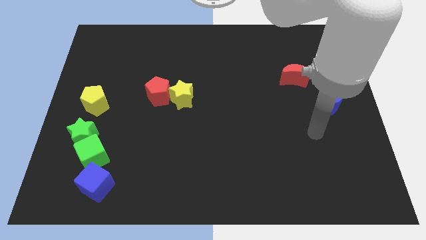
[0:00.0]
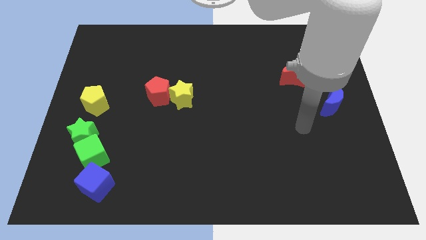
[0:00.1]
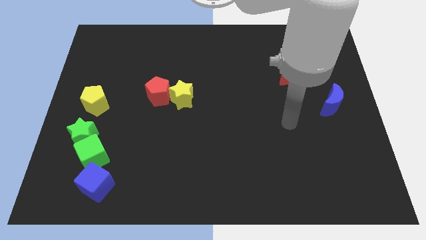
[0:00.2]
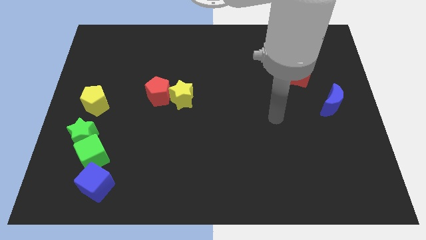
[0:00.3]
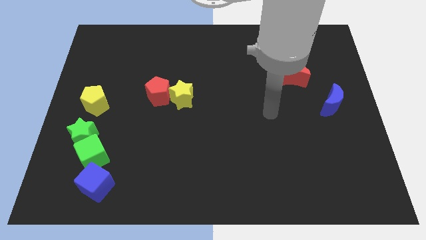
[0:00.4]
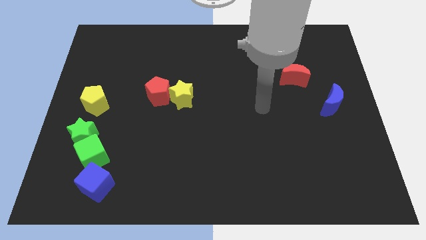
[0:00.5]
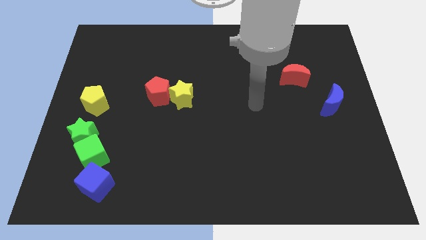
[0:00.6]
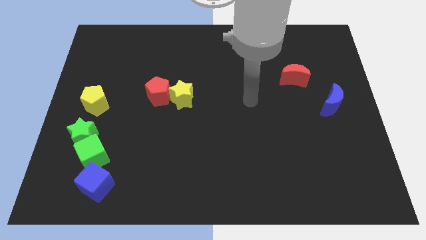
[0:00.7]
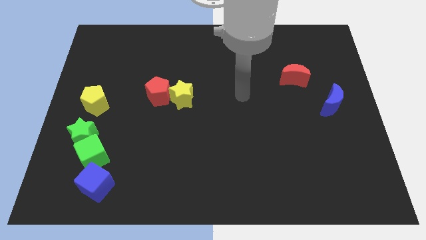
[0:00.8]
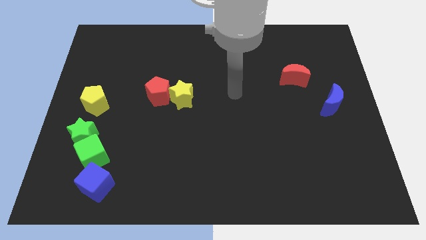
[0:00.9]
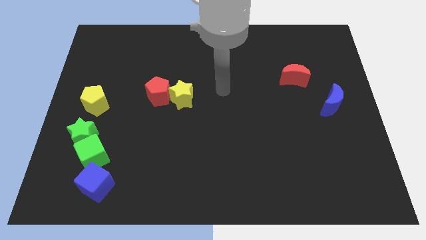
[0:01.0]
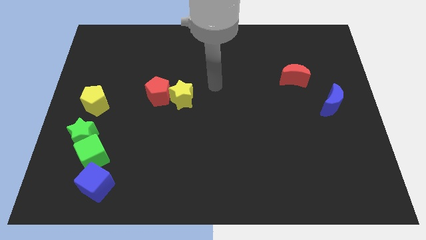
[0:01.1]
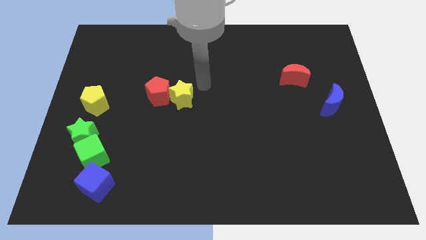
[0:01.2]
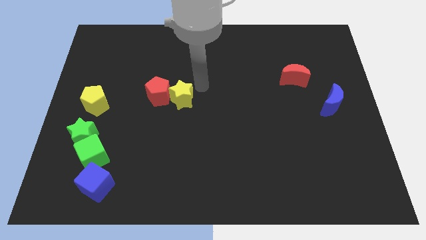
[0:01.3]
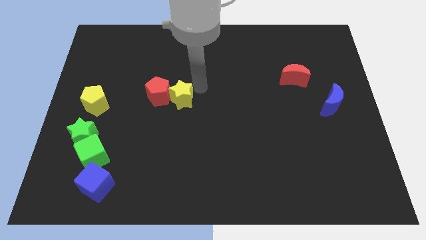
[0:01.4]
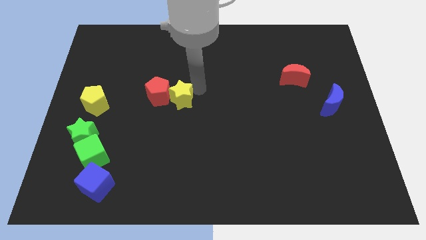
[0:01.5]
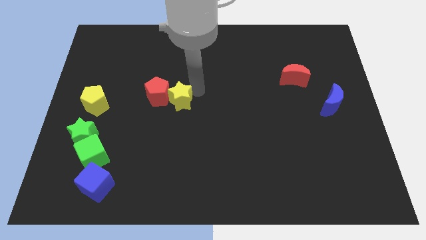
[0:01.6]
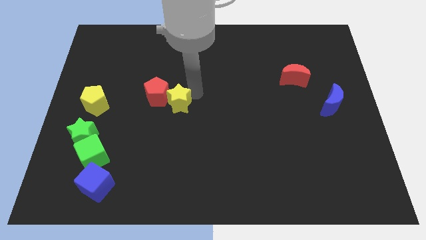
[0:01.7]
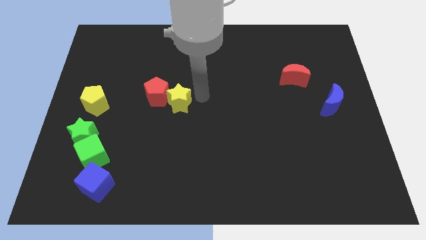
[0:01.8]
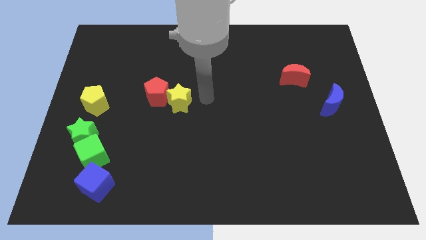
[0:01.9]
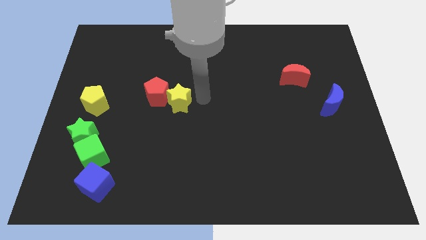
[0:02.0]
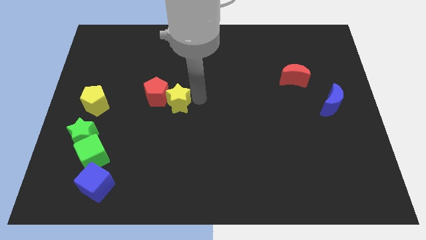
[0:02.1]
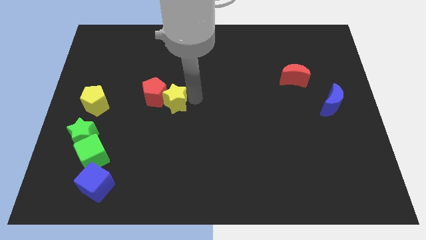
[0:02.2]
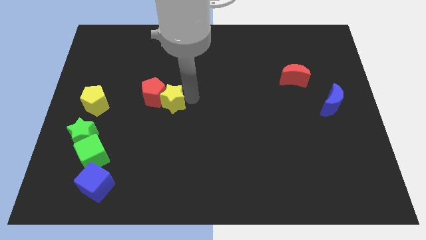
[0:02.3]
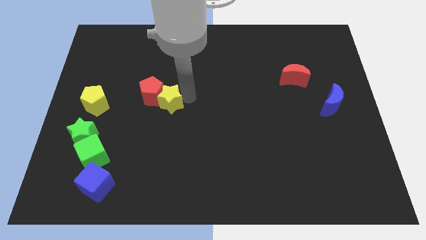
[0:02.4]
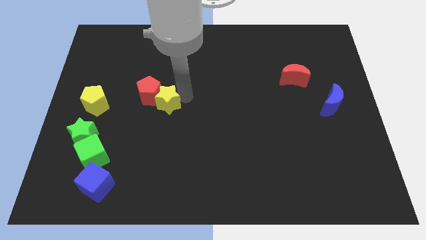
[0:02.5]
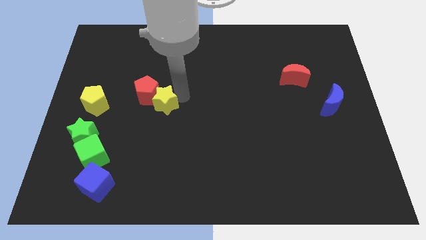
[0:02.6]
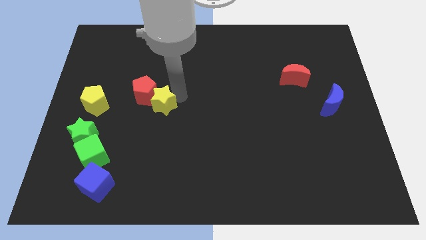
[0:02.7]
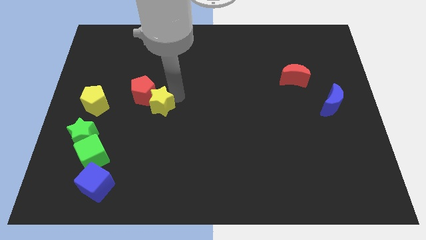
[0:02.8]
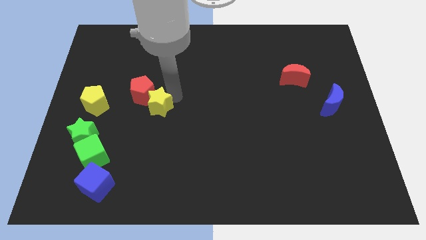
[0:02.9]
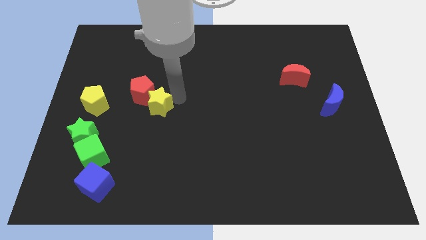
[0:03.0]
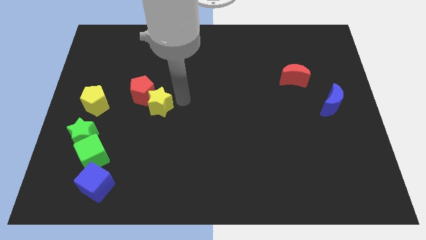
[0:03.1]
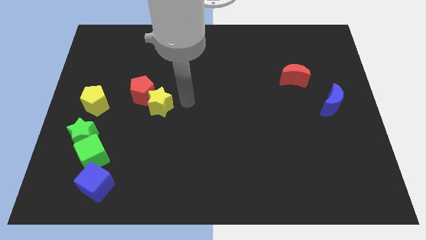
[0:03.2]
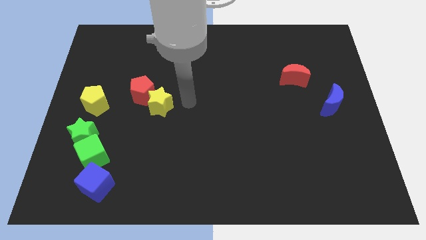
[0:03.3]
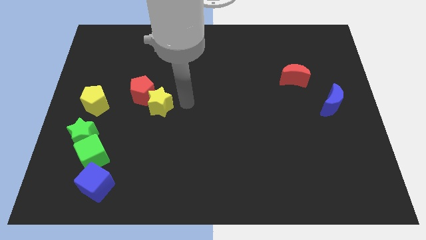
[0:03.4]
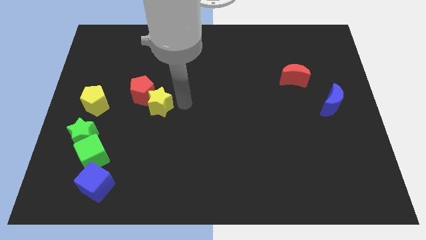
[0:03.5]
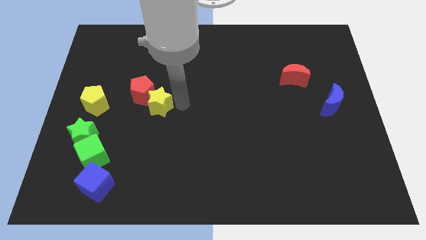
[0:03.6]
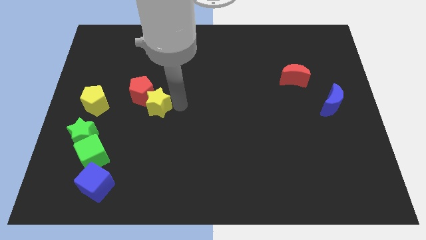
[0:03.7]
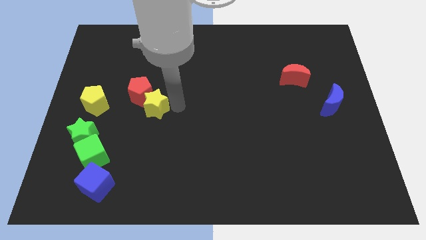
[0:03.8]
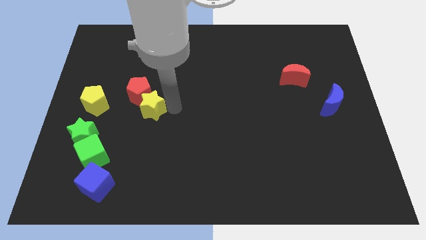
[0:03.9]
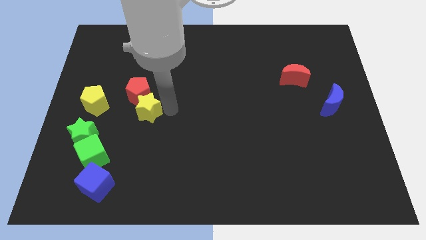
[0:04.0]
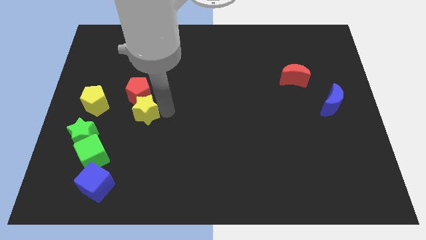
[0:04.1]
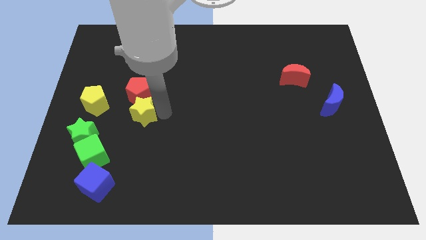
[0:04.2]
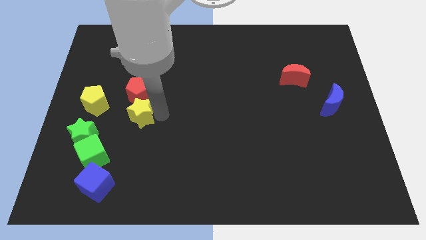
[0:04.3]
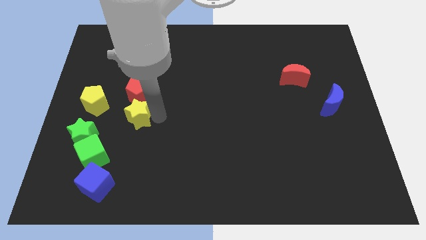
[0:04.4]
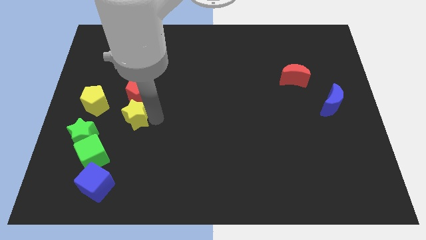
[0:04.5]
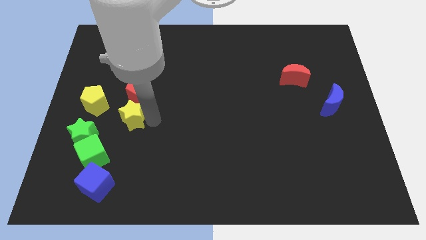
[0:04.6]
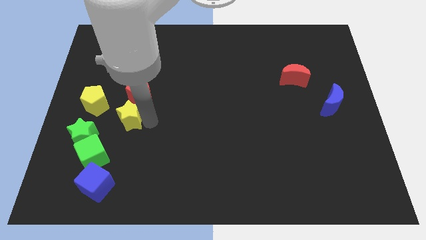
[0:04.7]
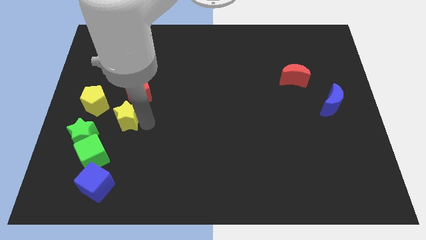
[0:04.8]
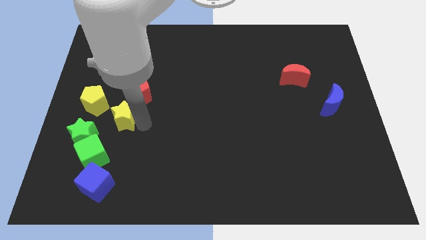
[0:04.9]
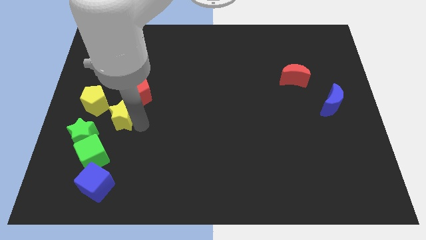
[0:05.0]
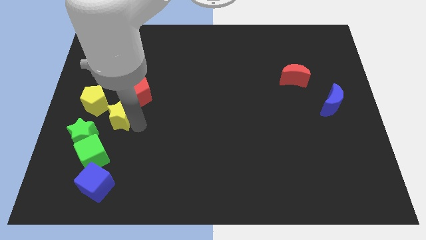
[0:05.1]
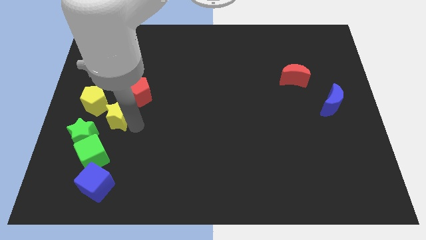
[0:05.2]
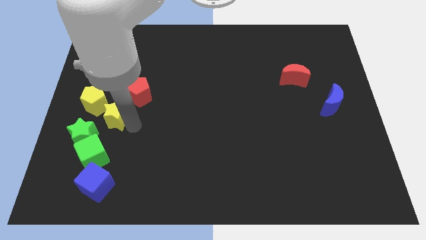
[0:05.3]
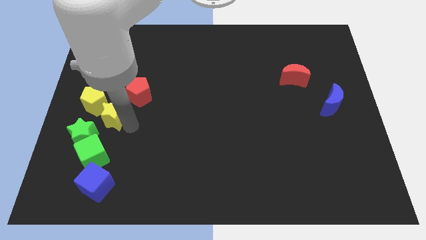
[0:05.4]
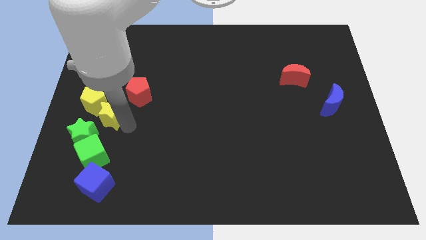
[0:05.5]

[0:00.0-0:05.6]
put the yellow star next to the yellow pentagon

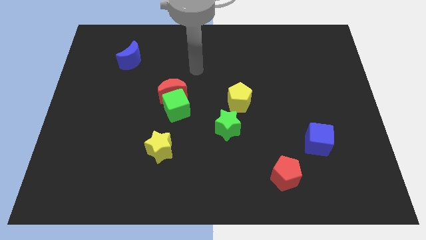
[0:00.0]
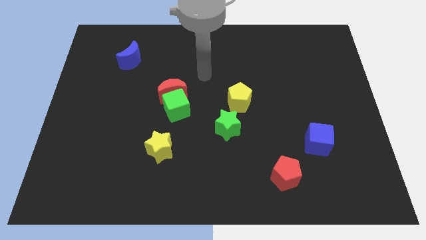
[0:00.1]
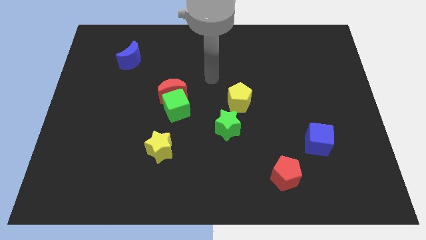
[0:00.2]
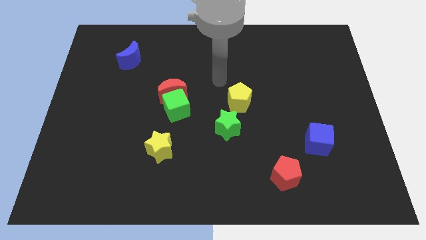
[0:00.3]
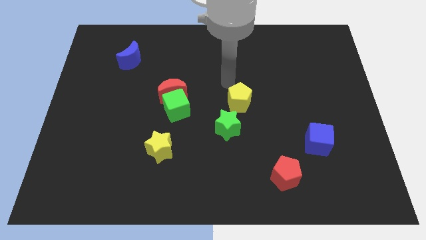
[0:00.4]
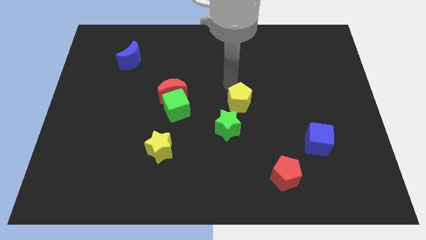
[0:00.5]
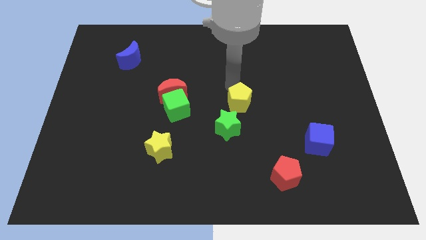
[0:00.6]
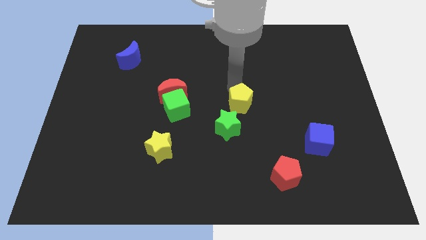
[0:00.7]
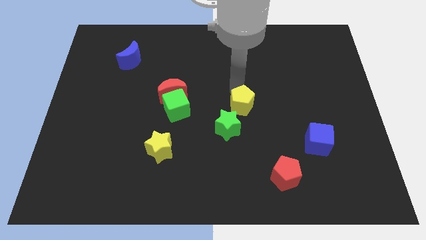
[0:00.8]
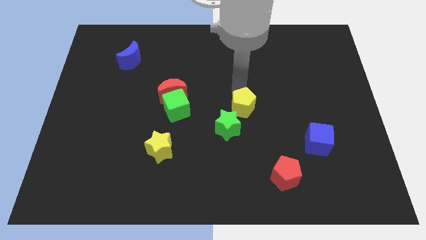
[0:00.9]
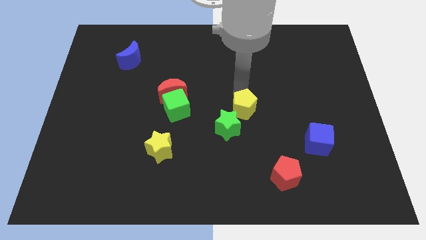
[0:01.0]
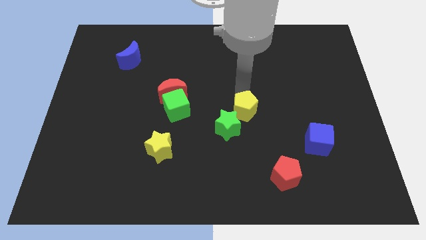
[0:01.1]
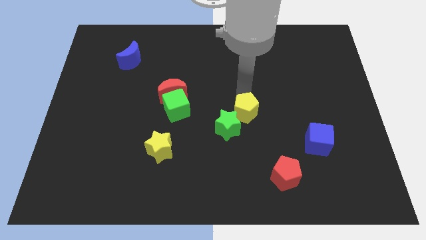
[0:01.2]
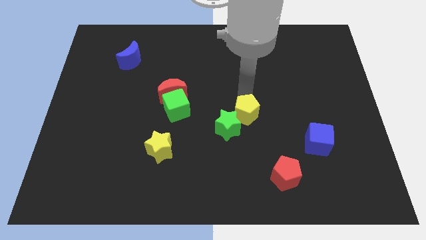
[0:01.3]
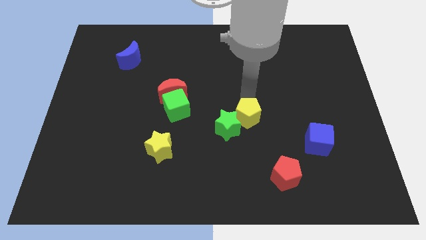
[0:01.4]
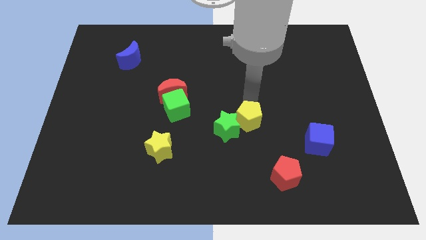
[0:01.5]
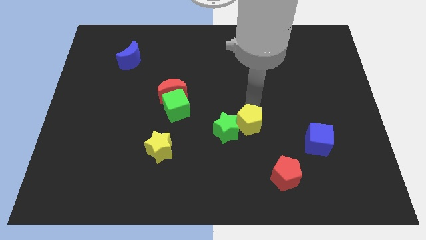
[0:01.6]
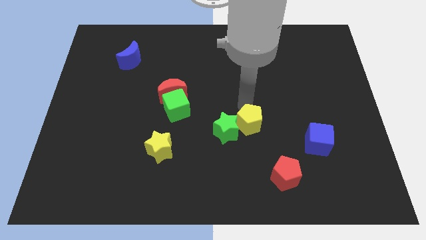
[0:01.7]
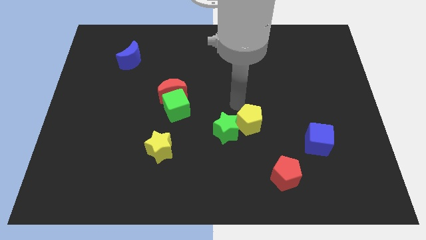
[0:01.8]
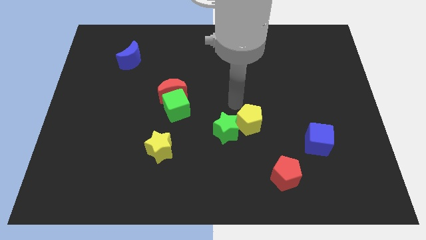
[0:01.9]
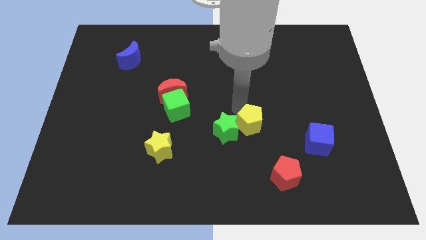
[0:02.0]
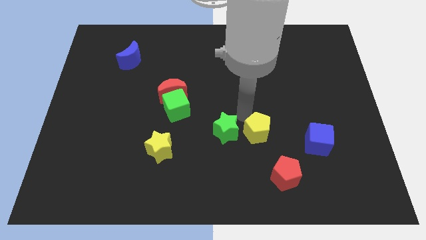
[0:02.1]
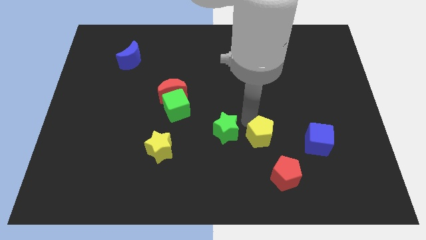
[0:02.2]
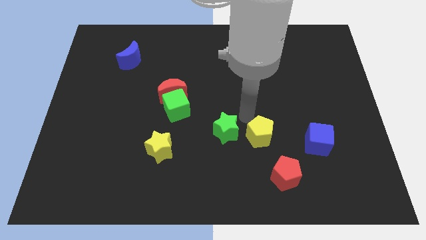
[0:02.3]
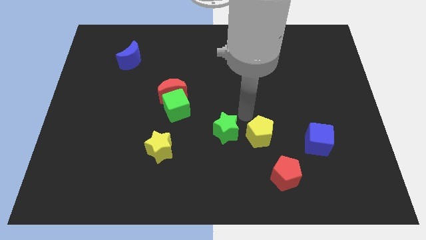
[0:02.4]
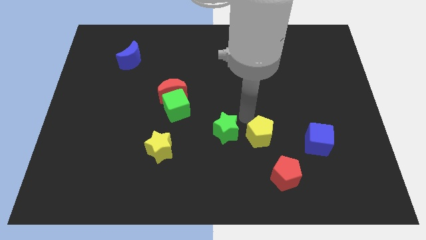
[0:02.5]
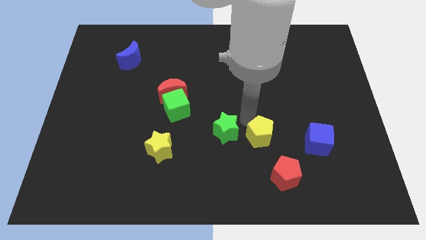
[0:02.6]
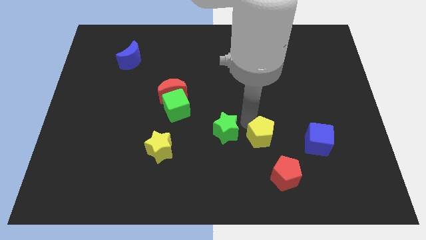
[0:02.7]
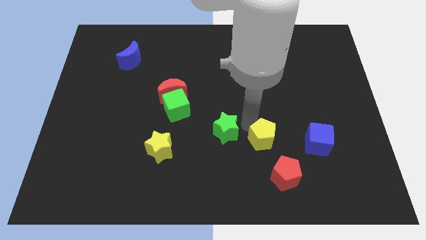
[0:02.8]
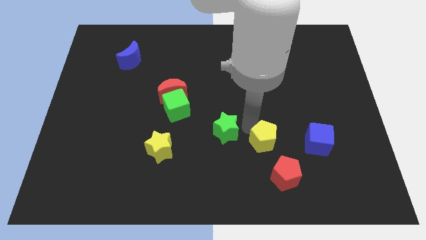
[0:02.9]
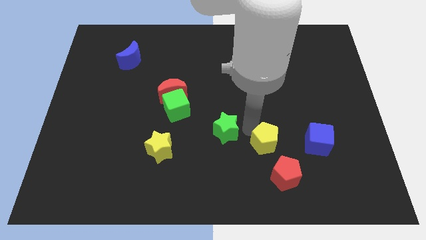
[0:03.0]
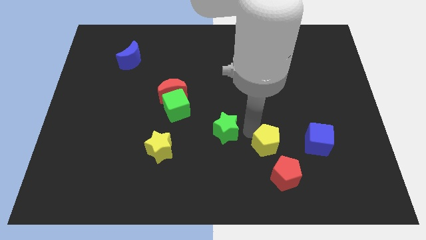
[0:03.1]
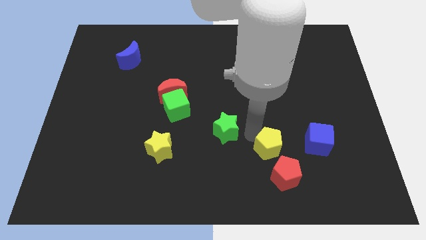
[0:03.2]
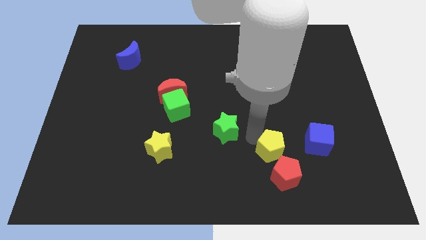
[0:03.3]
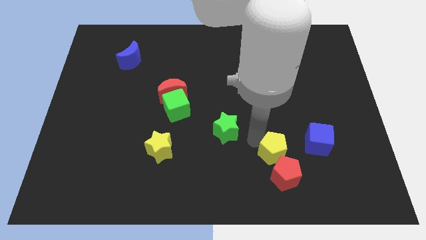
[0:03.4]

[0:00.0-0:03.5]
push the yellow pentagon next to the red pentagon
